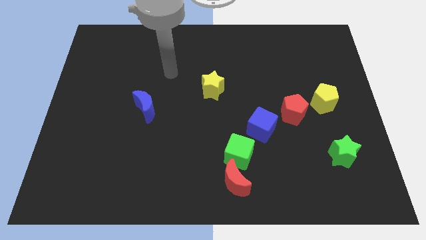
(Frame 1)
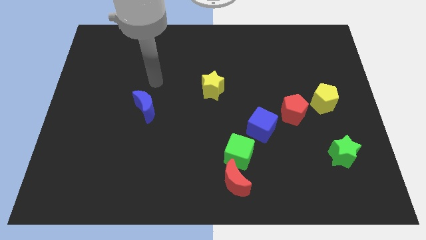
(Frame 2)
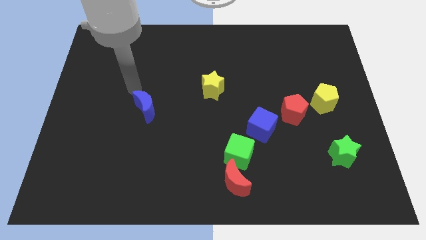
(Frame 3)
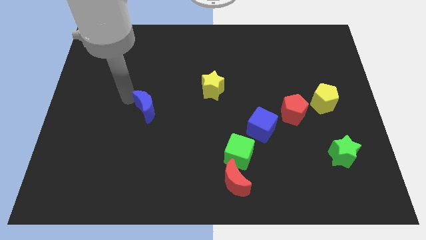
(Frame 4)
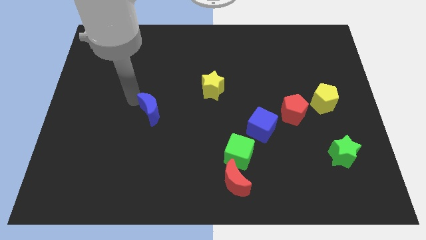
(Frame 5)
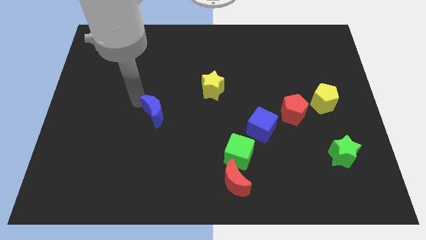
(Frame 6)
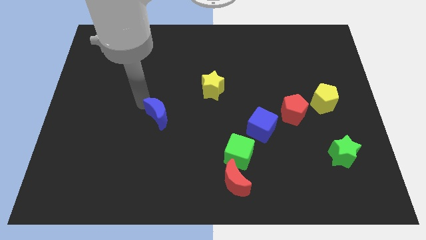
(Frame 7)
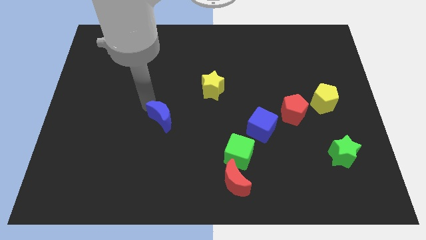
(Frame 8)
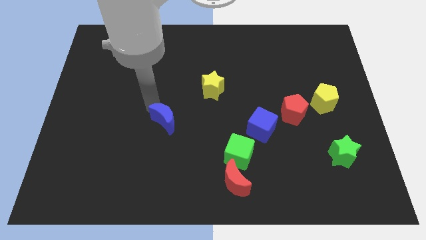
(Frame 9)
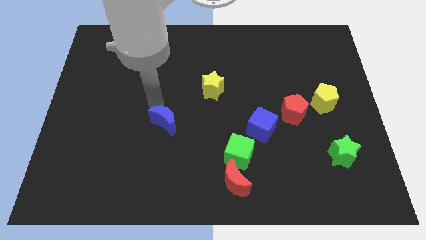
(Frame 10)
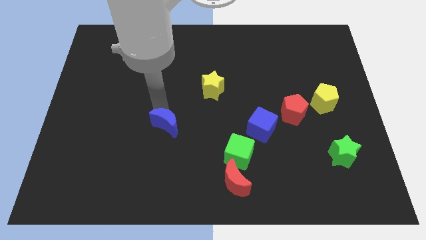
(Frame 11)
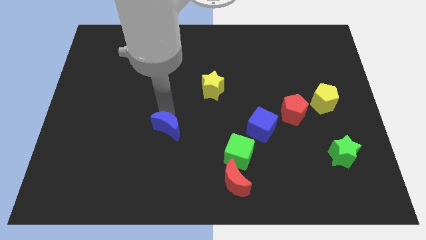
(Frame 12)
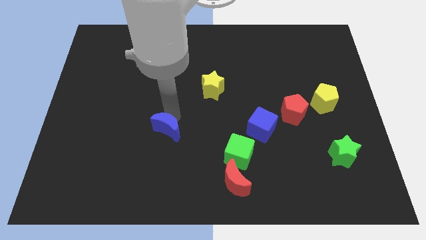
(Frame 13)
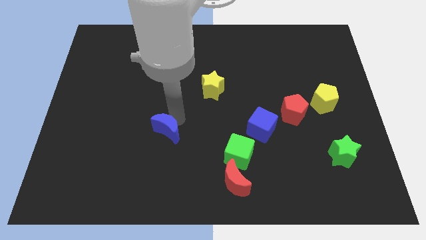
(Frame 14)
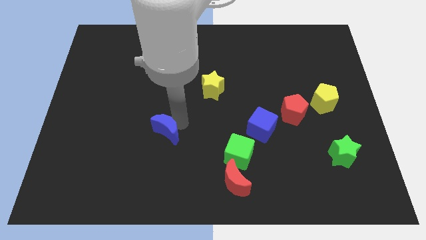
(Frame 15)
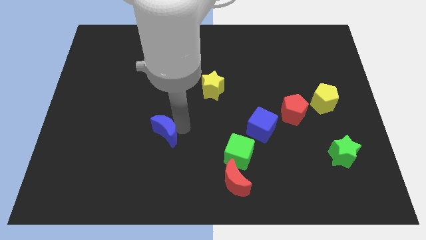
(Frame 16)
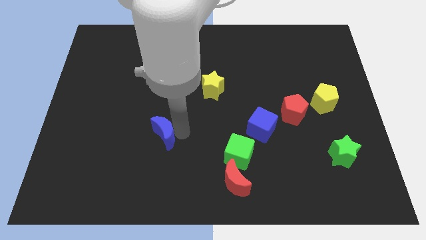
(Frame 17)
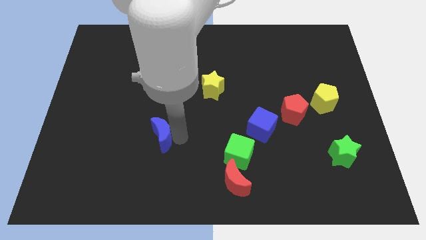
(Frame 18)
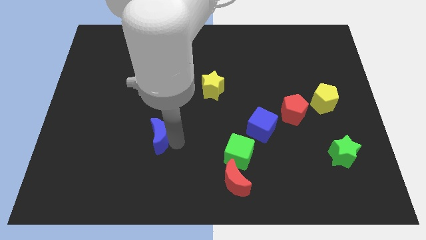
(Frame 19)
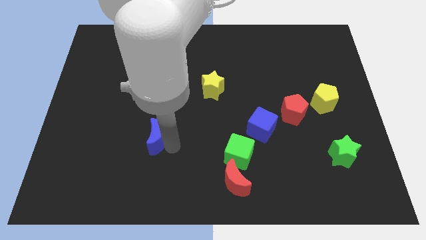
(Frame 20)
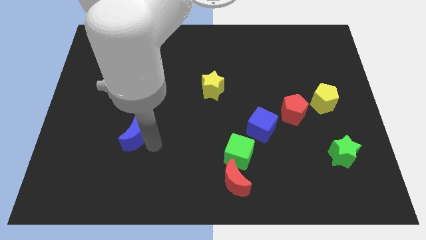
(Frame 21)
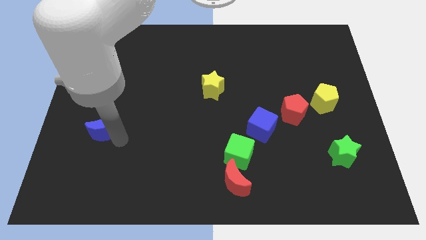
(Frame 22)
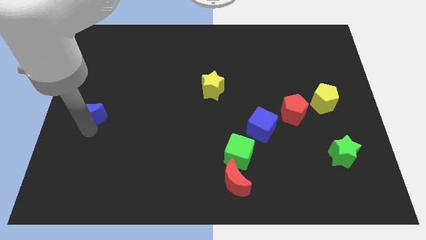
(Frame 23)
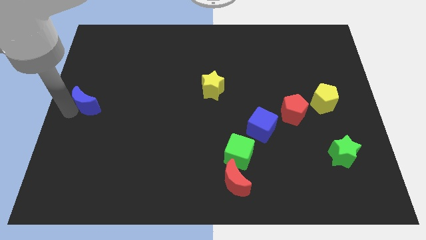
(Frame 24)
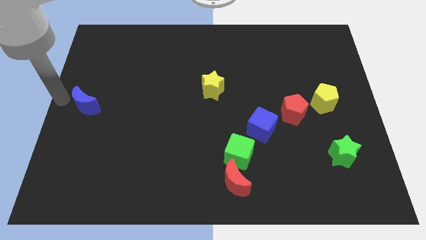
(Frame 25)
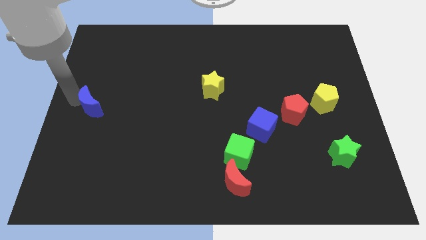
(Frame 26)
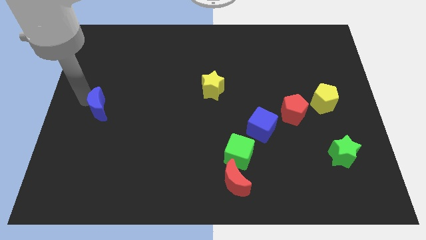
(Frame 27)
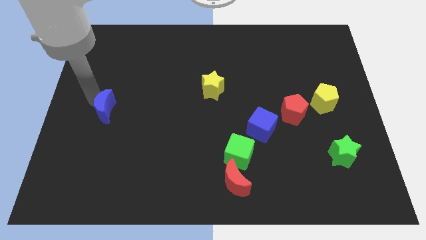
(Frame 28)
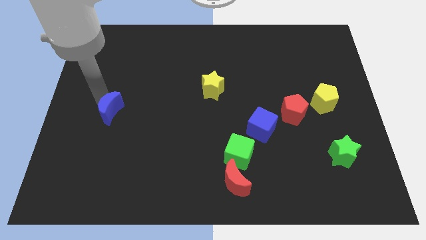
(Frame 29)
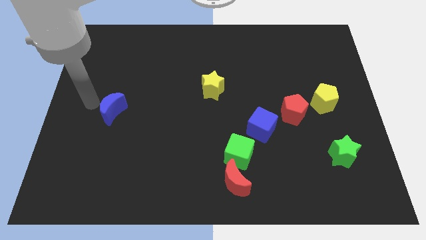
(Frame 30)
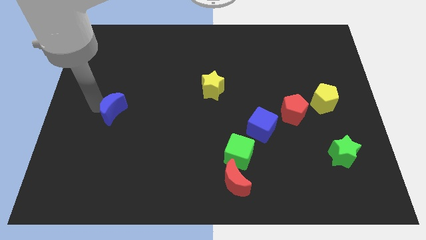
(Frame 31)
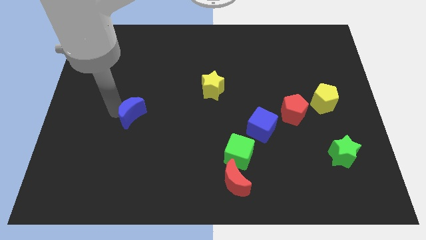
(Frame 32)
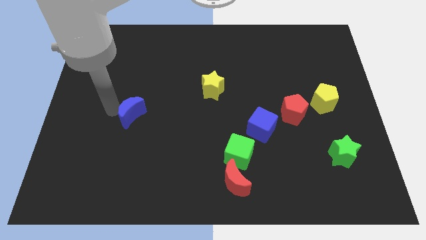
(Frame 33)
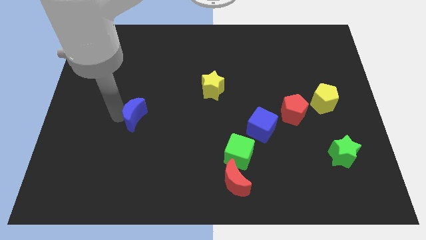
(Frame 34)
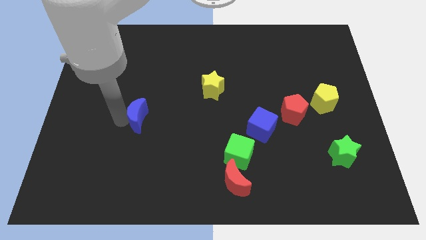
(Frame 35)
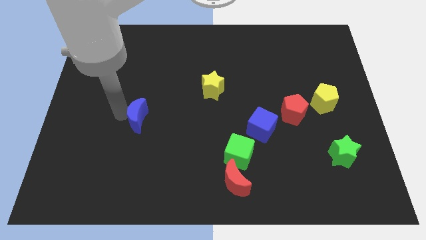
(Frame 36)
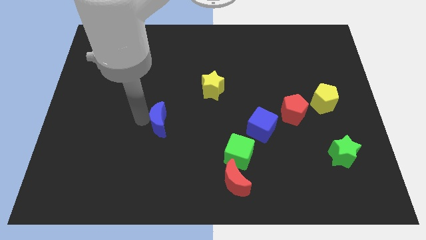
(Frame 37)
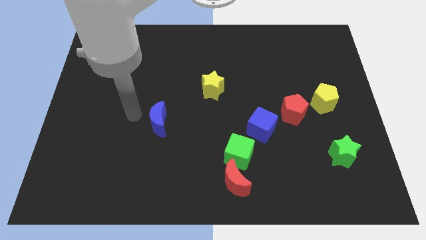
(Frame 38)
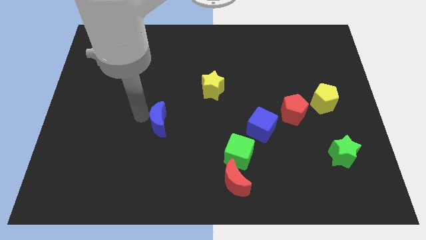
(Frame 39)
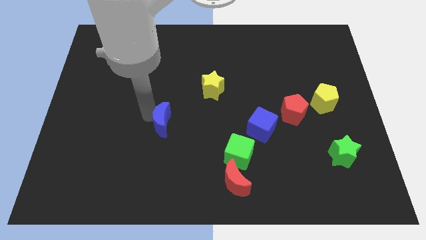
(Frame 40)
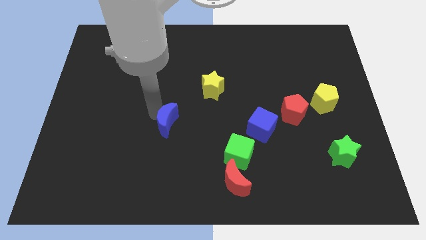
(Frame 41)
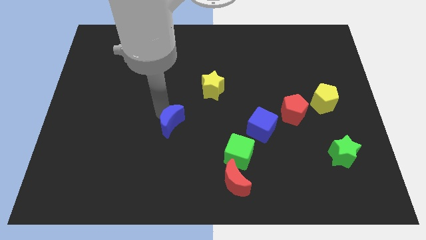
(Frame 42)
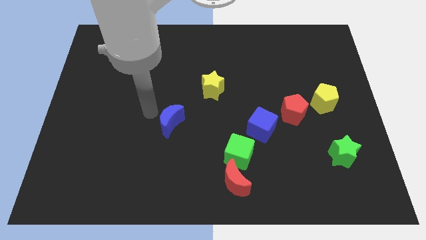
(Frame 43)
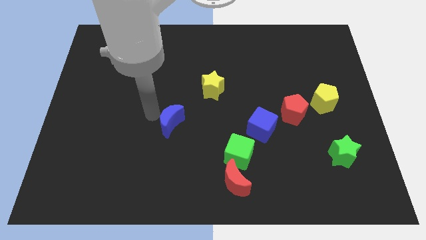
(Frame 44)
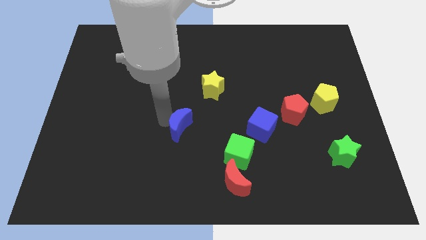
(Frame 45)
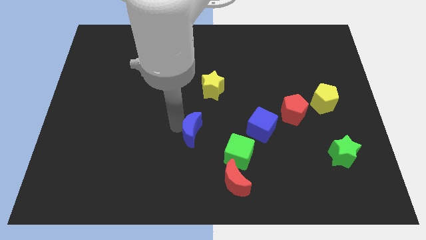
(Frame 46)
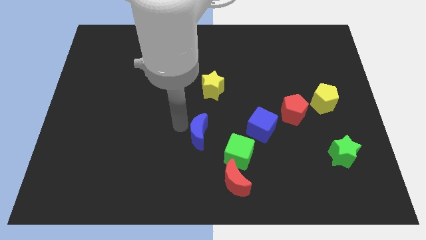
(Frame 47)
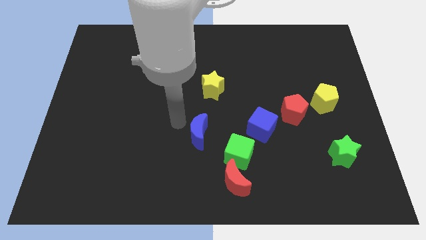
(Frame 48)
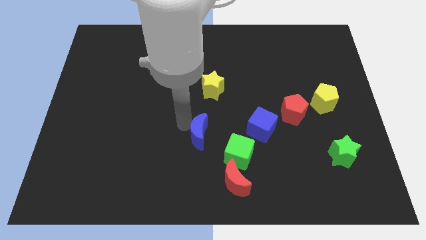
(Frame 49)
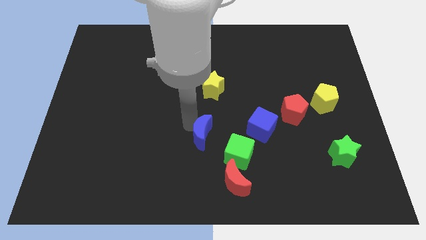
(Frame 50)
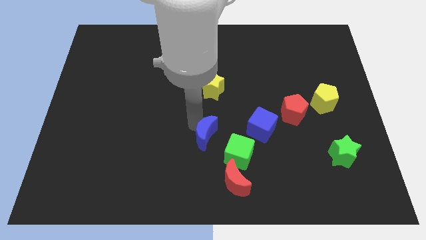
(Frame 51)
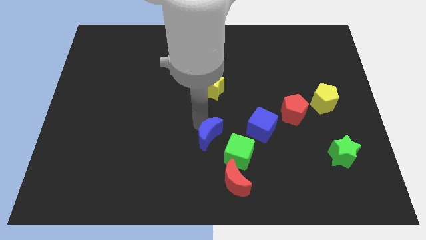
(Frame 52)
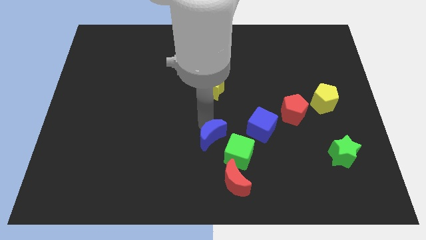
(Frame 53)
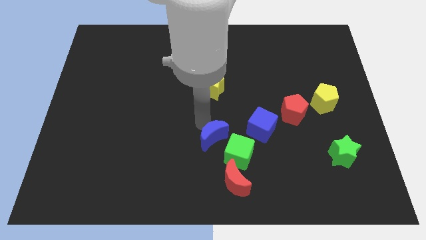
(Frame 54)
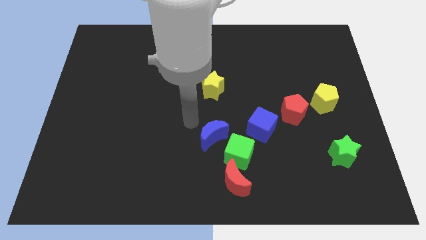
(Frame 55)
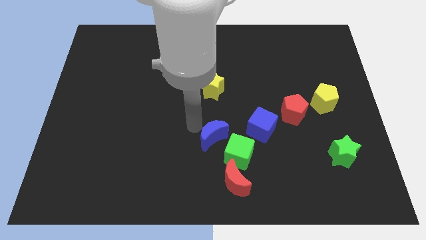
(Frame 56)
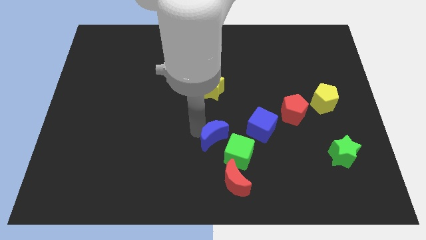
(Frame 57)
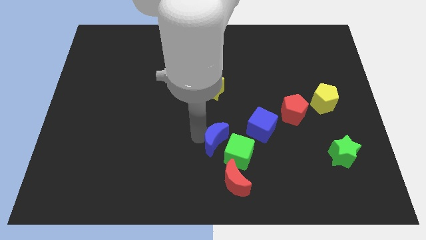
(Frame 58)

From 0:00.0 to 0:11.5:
put the blue moon to the green cube

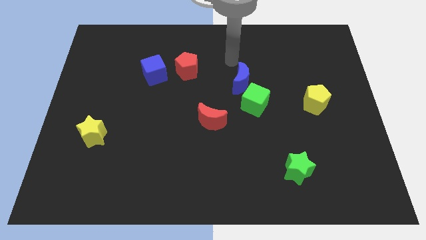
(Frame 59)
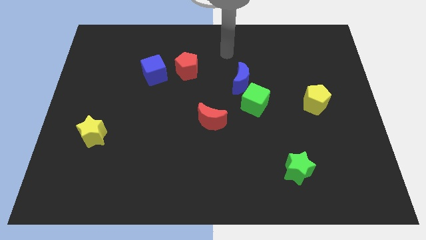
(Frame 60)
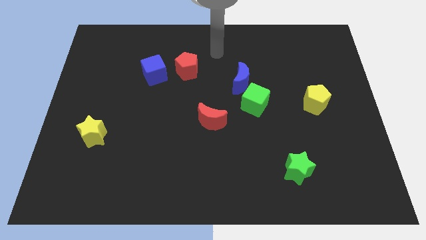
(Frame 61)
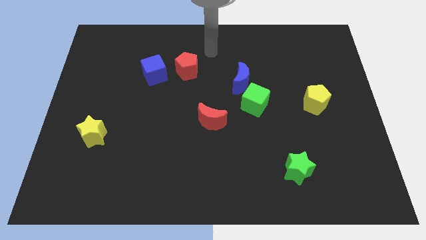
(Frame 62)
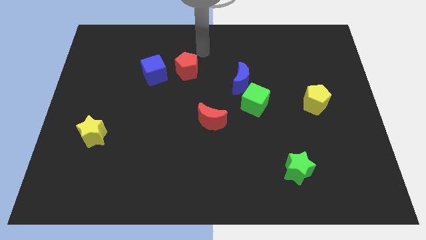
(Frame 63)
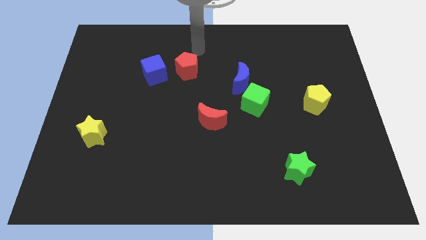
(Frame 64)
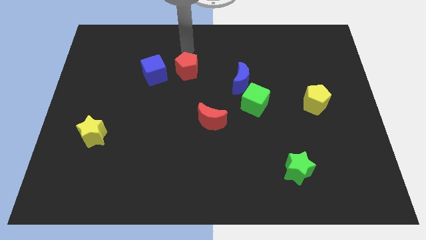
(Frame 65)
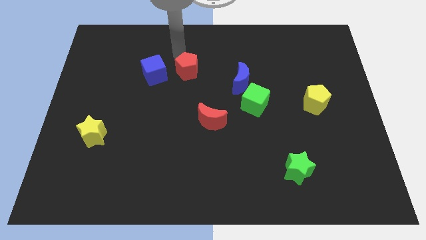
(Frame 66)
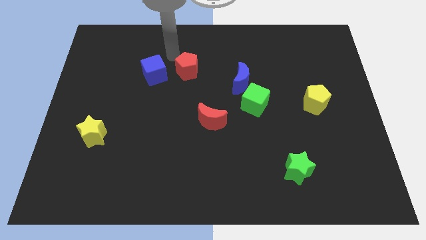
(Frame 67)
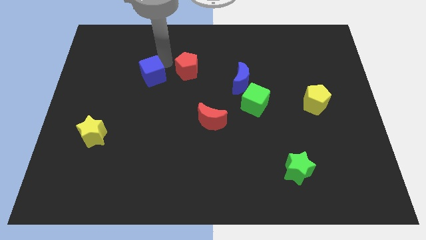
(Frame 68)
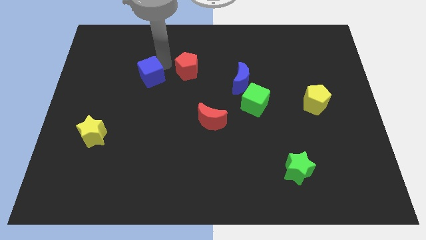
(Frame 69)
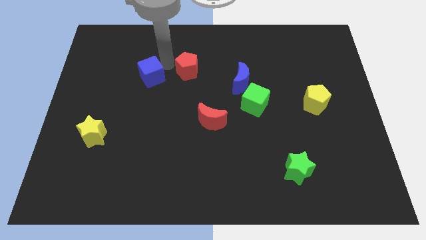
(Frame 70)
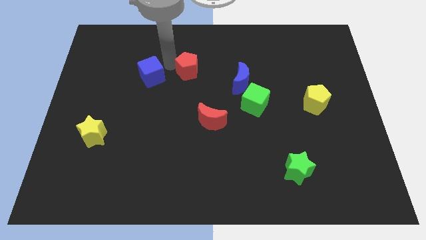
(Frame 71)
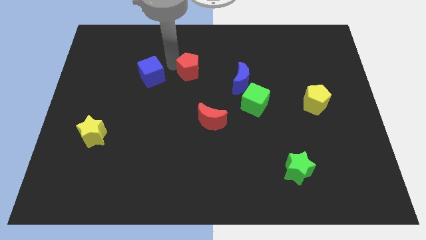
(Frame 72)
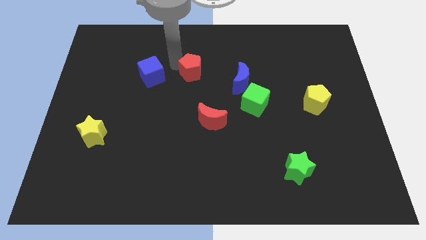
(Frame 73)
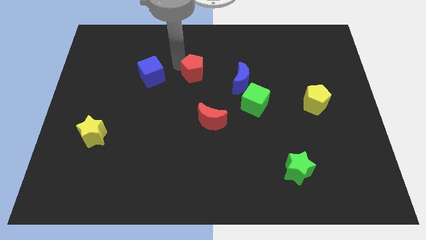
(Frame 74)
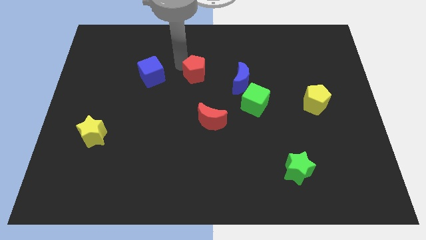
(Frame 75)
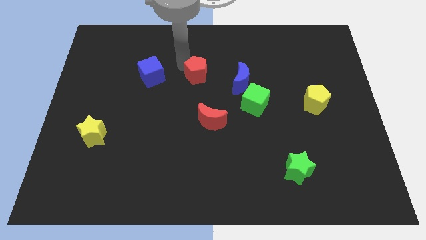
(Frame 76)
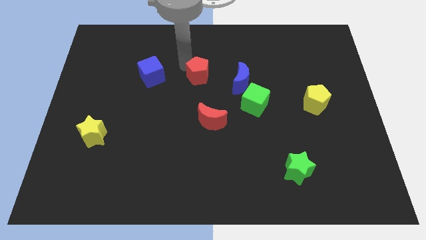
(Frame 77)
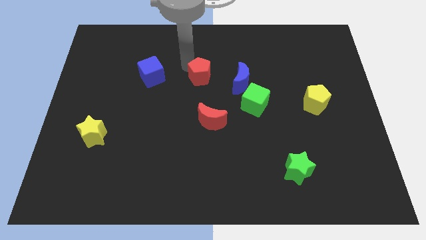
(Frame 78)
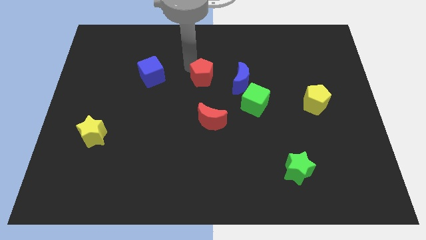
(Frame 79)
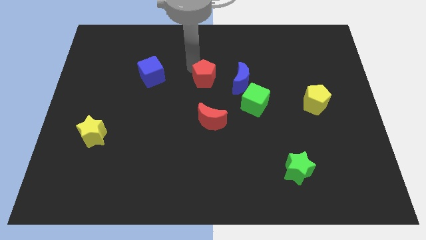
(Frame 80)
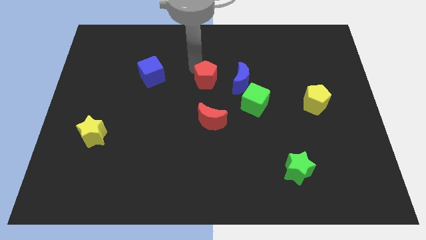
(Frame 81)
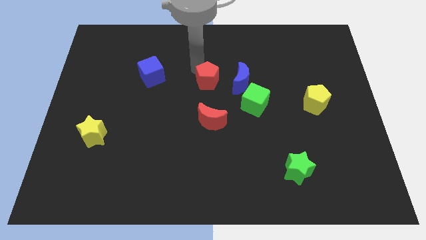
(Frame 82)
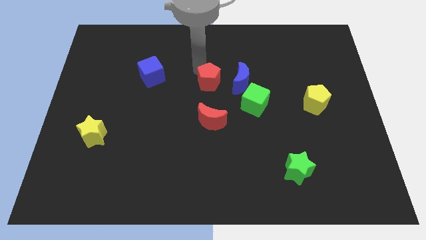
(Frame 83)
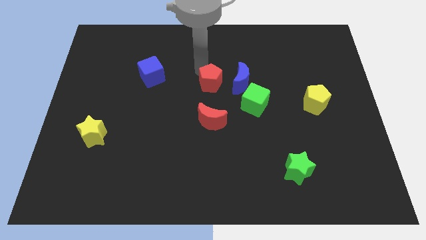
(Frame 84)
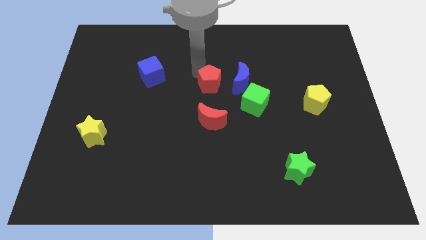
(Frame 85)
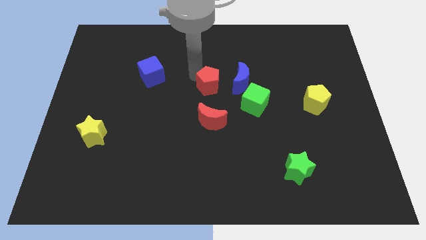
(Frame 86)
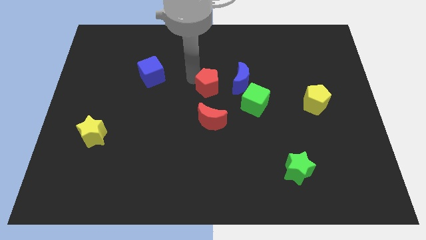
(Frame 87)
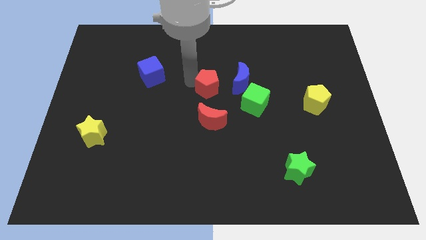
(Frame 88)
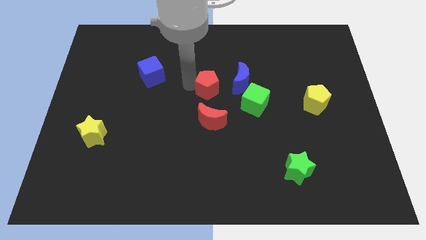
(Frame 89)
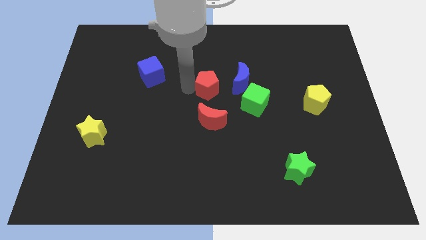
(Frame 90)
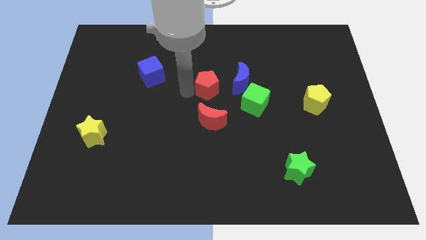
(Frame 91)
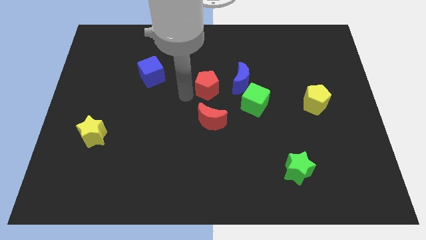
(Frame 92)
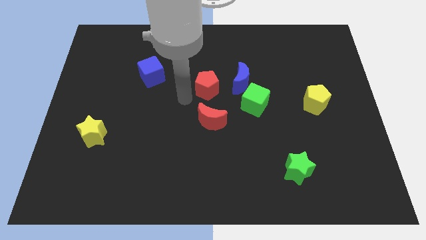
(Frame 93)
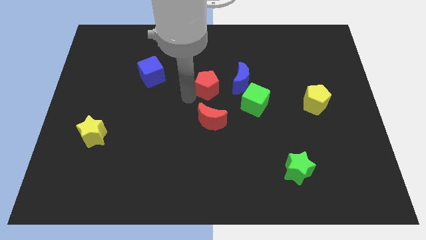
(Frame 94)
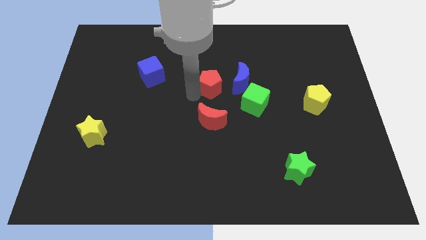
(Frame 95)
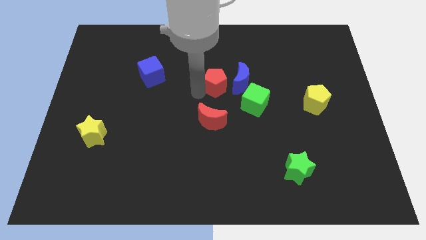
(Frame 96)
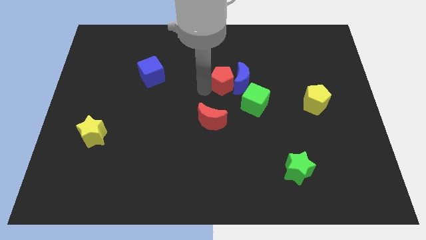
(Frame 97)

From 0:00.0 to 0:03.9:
slide the red pentagon close to the blue moon
